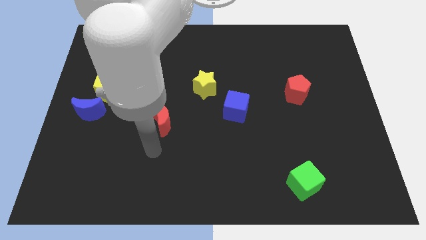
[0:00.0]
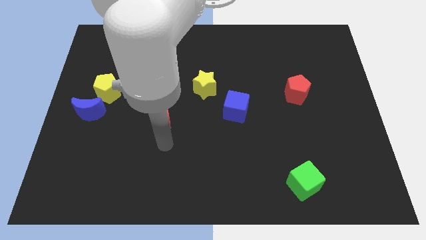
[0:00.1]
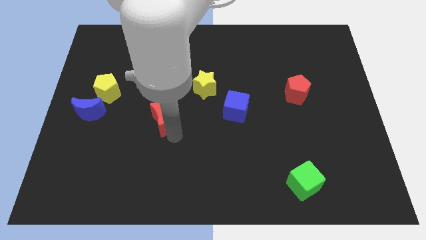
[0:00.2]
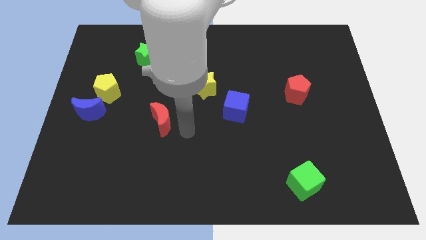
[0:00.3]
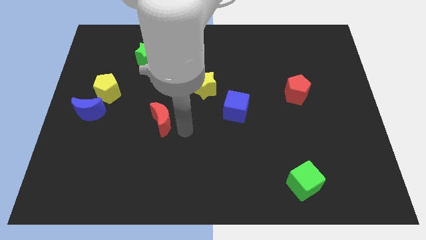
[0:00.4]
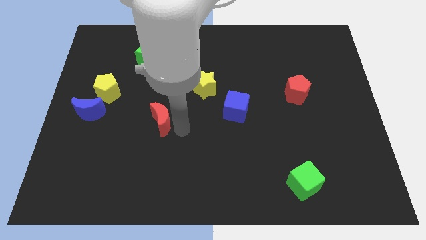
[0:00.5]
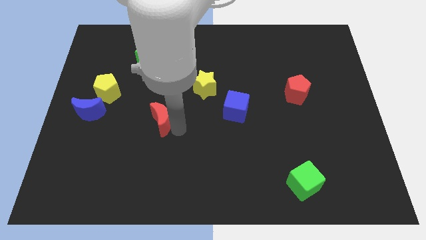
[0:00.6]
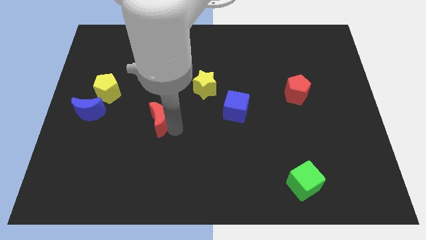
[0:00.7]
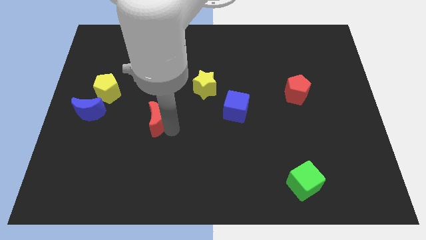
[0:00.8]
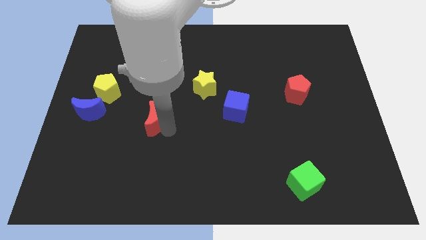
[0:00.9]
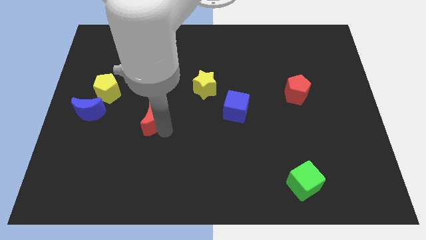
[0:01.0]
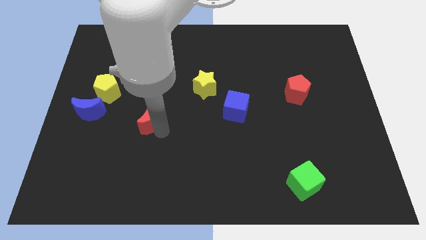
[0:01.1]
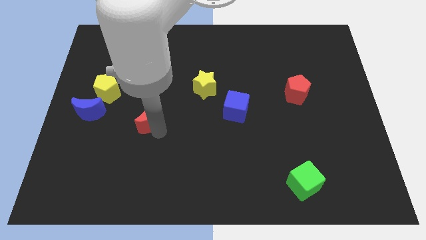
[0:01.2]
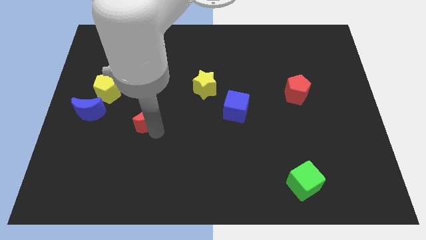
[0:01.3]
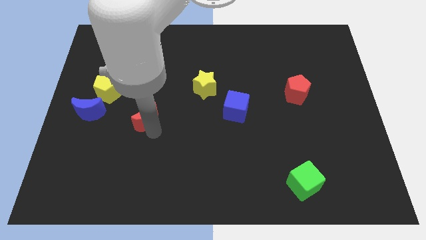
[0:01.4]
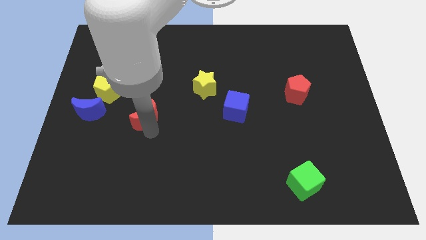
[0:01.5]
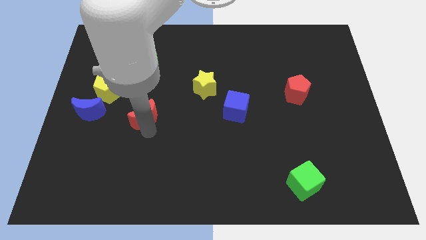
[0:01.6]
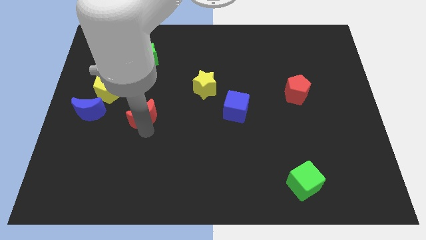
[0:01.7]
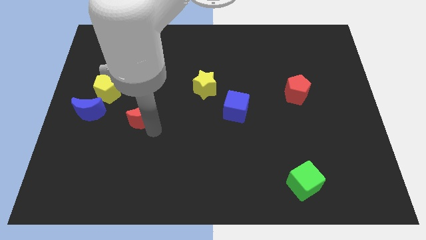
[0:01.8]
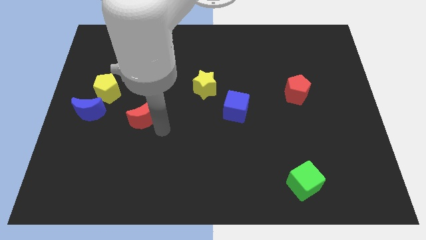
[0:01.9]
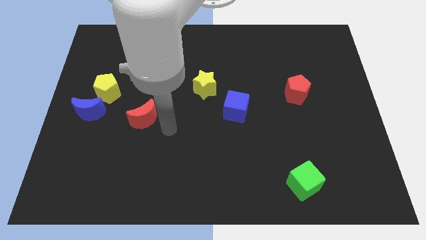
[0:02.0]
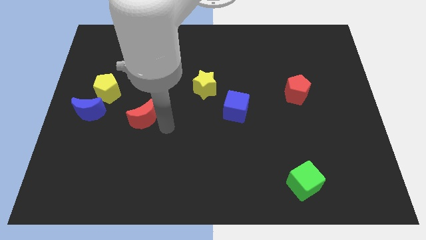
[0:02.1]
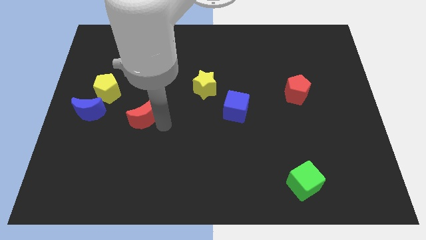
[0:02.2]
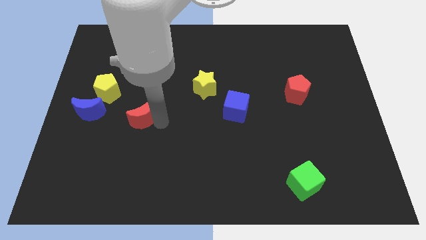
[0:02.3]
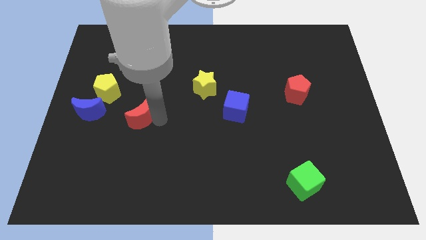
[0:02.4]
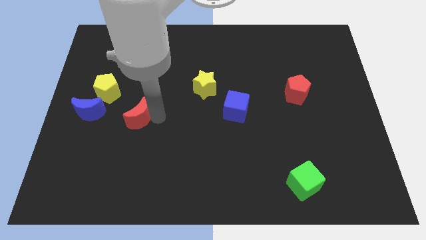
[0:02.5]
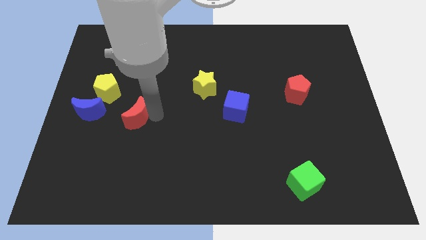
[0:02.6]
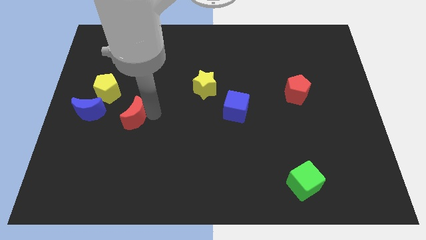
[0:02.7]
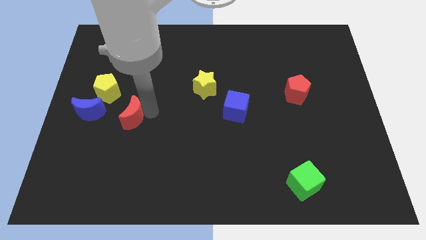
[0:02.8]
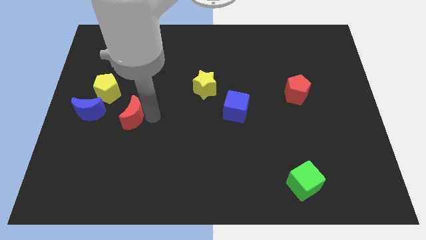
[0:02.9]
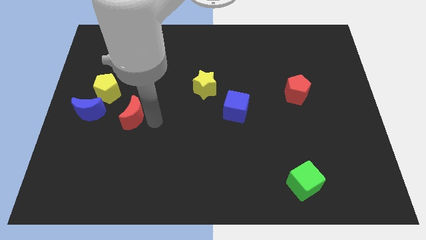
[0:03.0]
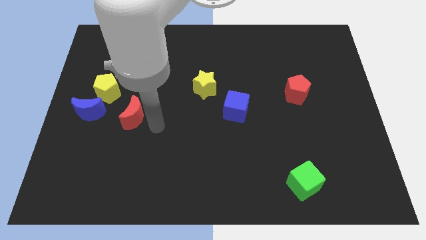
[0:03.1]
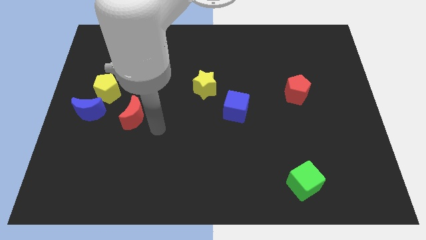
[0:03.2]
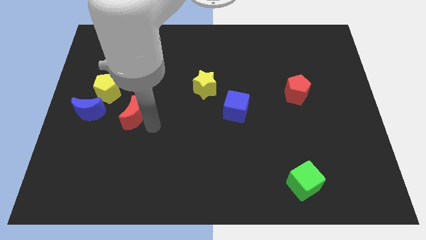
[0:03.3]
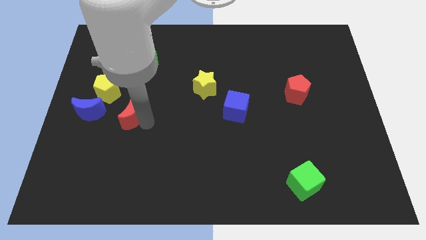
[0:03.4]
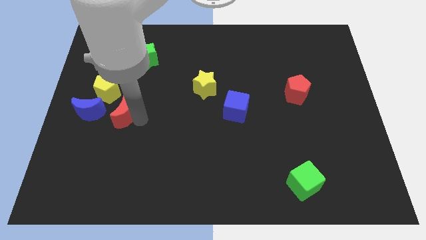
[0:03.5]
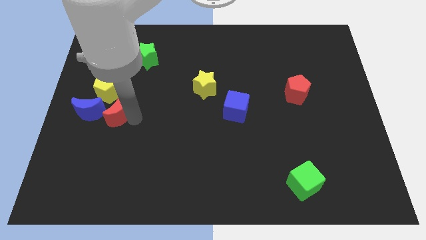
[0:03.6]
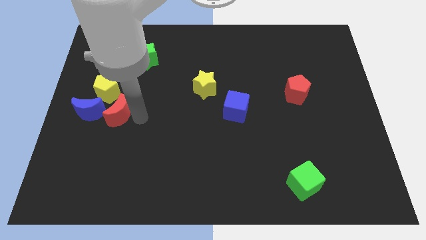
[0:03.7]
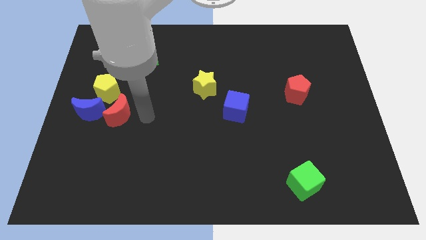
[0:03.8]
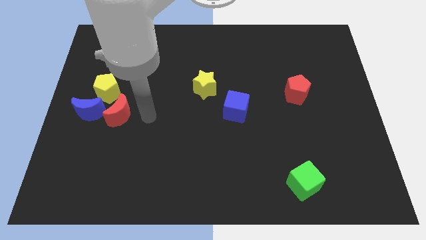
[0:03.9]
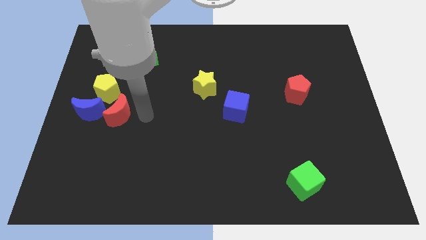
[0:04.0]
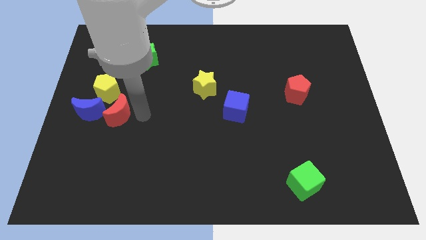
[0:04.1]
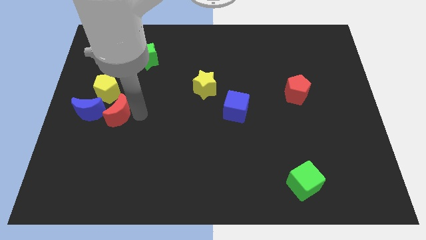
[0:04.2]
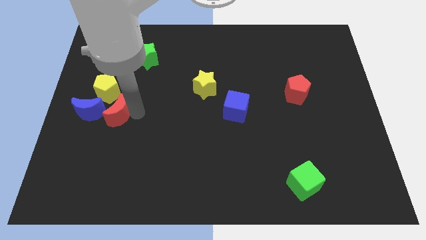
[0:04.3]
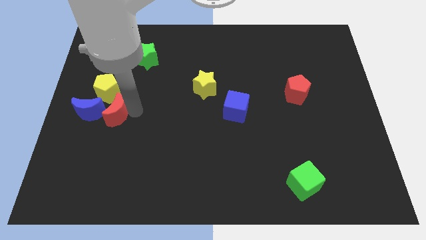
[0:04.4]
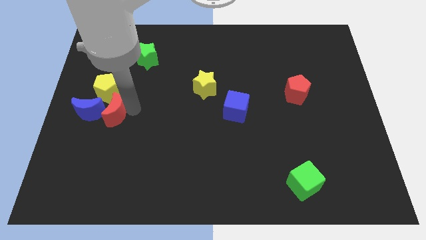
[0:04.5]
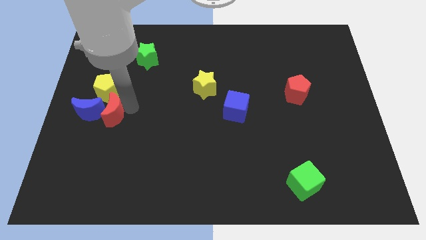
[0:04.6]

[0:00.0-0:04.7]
slide the red moon towards the blue moon

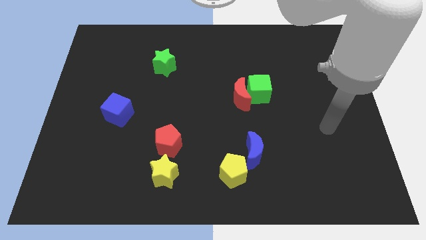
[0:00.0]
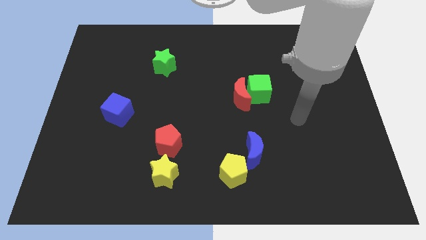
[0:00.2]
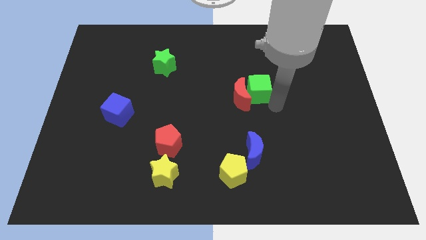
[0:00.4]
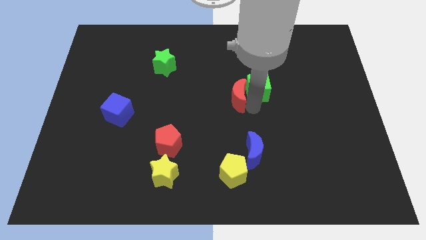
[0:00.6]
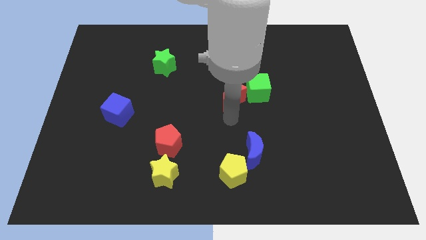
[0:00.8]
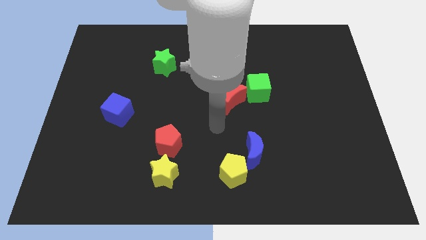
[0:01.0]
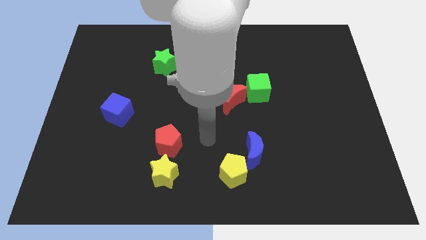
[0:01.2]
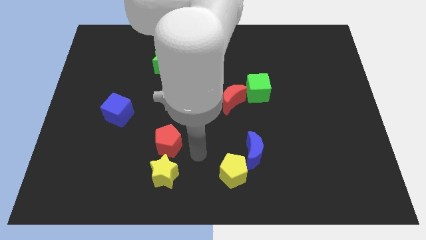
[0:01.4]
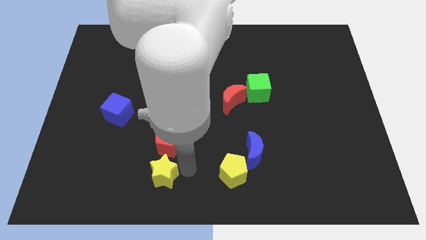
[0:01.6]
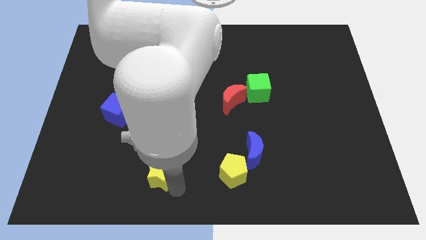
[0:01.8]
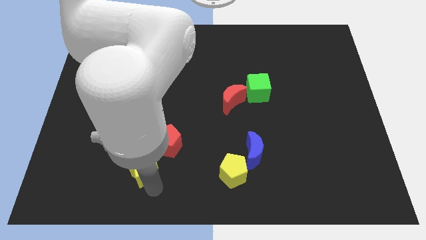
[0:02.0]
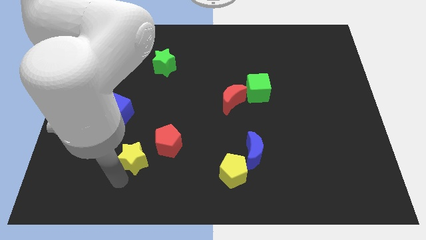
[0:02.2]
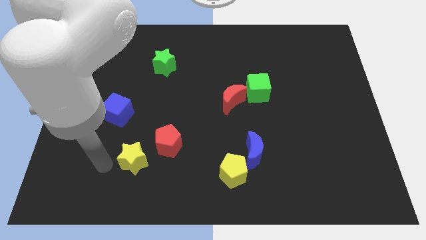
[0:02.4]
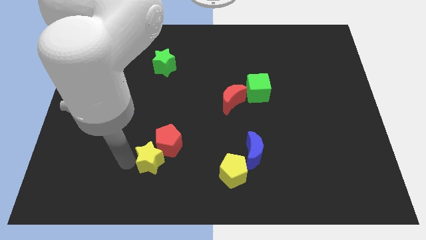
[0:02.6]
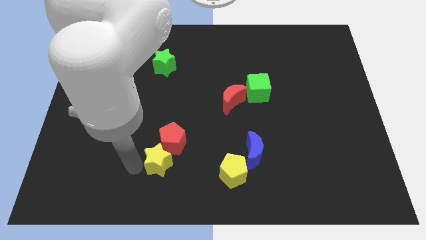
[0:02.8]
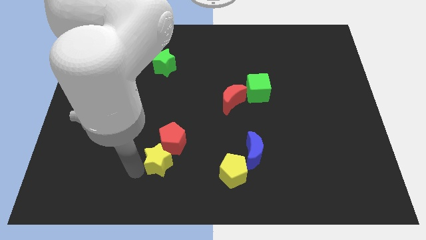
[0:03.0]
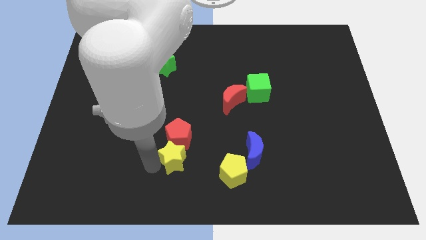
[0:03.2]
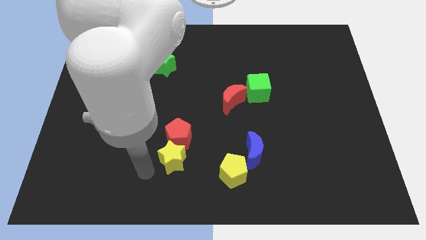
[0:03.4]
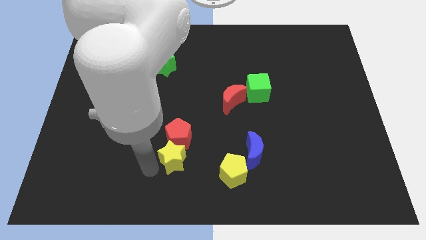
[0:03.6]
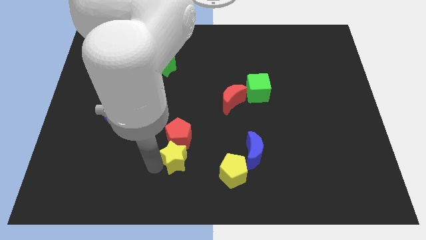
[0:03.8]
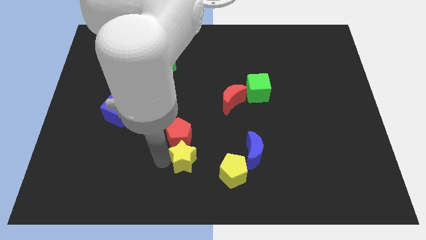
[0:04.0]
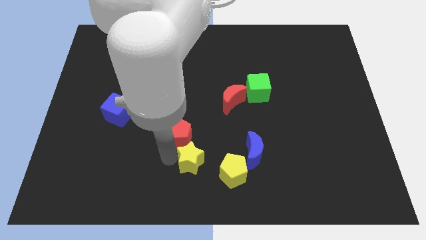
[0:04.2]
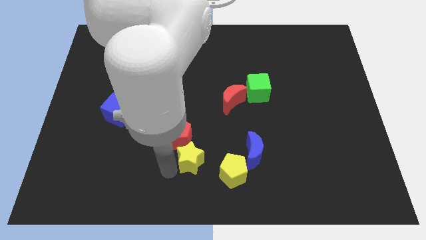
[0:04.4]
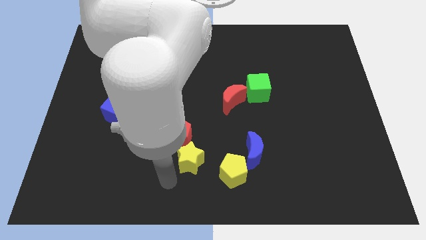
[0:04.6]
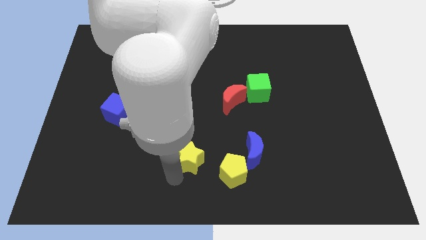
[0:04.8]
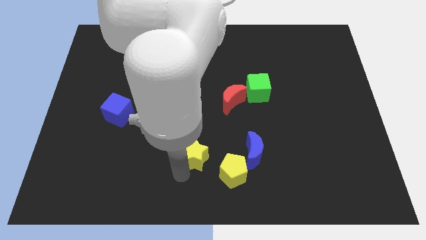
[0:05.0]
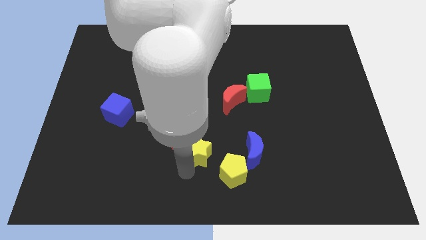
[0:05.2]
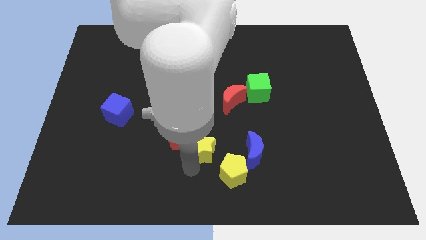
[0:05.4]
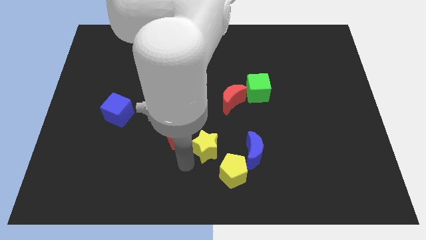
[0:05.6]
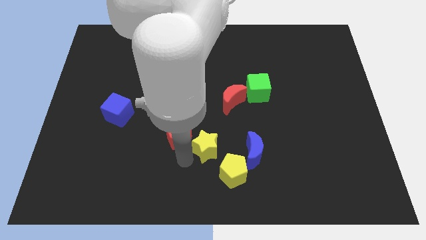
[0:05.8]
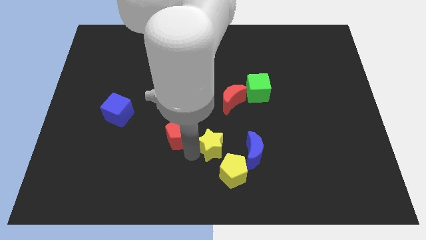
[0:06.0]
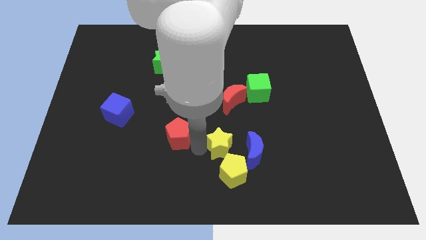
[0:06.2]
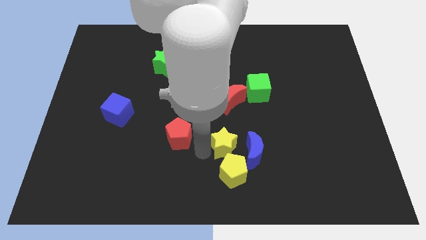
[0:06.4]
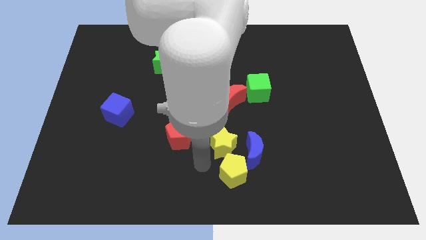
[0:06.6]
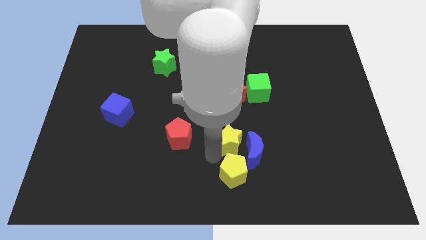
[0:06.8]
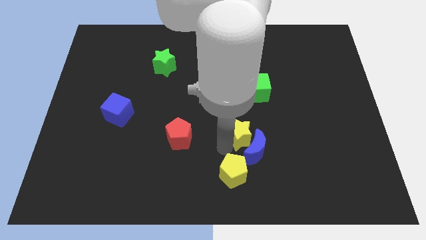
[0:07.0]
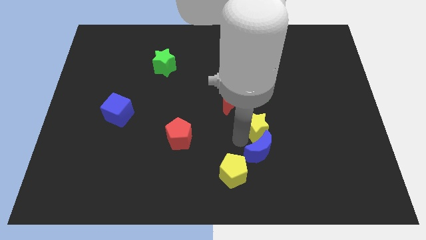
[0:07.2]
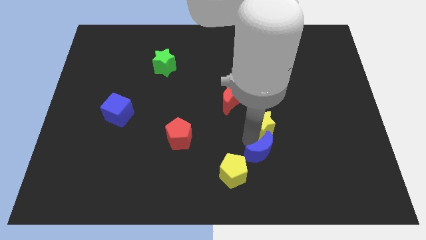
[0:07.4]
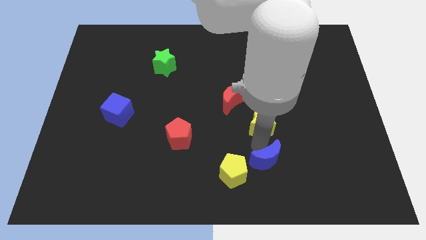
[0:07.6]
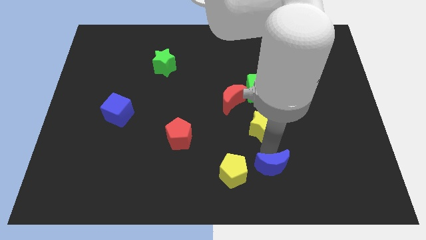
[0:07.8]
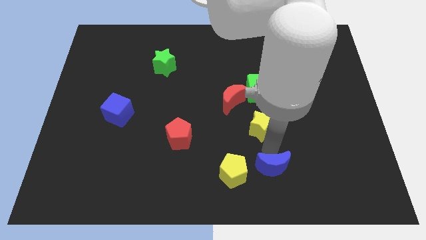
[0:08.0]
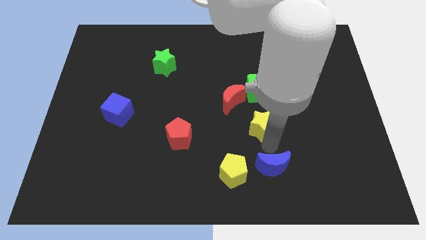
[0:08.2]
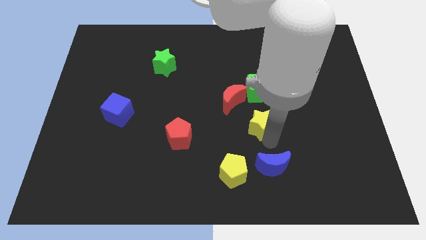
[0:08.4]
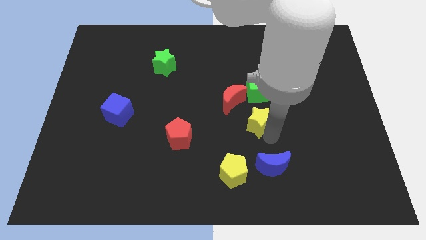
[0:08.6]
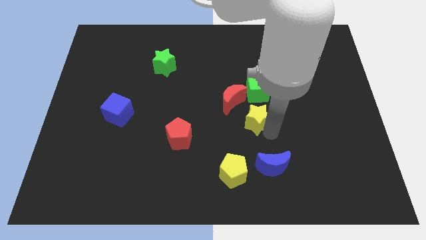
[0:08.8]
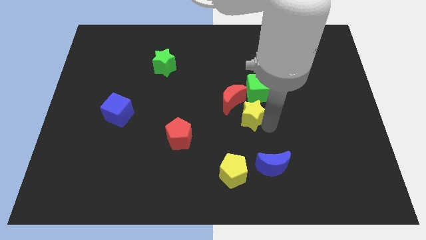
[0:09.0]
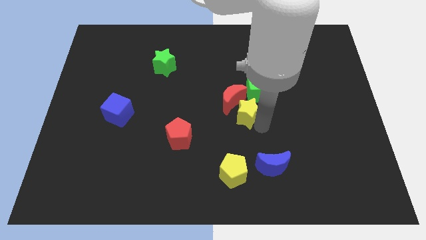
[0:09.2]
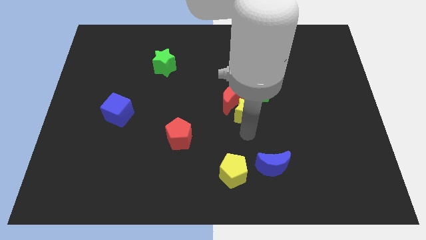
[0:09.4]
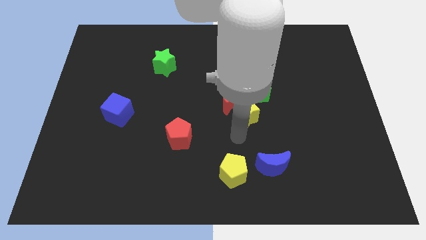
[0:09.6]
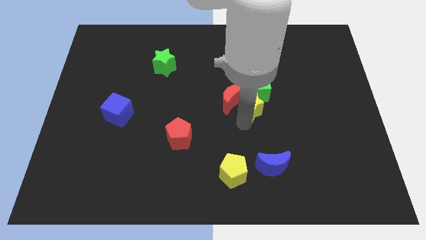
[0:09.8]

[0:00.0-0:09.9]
push the yellow star next to the green cube
